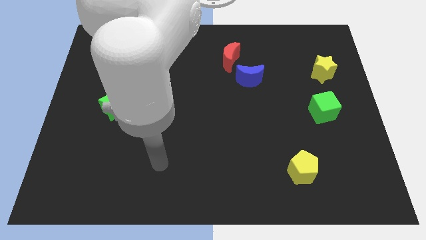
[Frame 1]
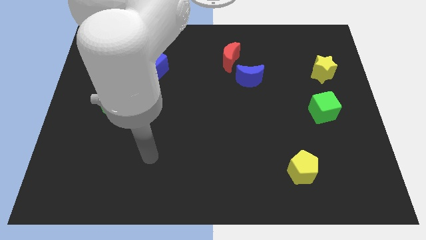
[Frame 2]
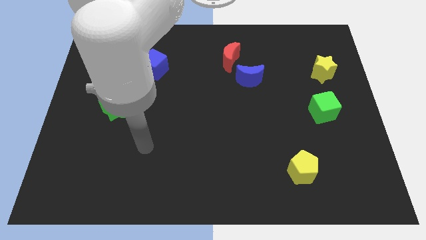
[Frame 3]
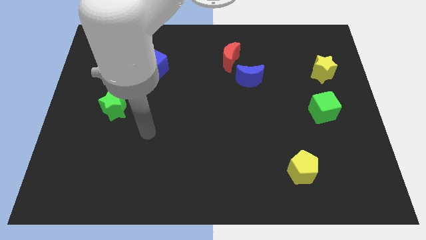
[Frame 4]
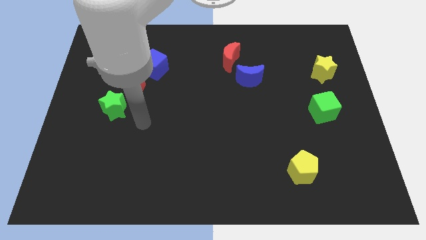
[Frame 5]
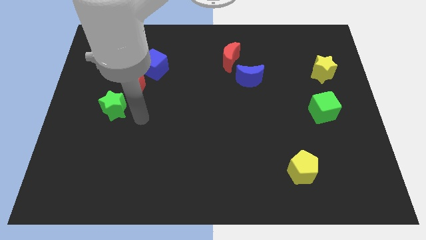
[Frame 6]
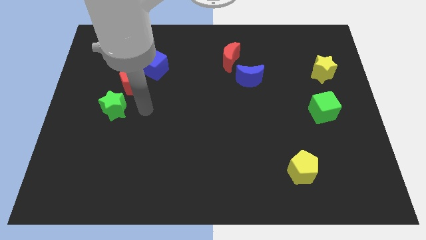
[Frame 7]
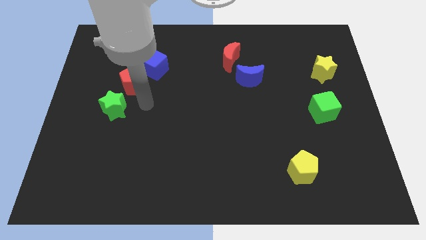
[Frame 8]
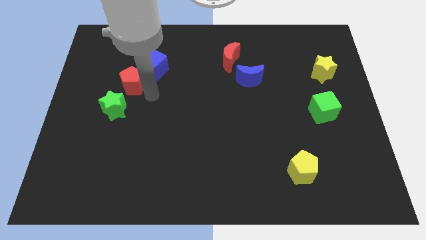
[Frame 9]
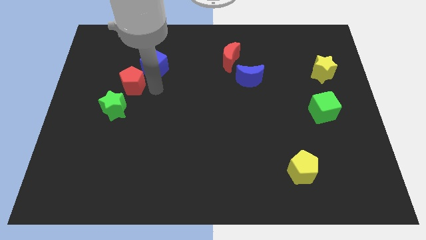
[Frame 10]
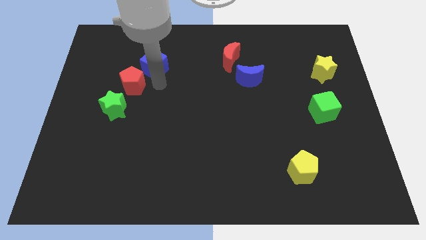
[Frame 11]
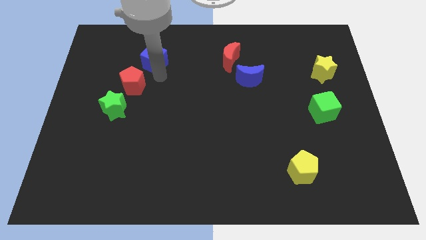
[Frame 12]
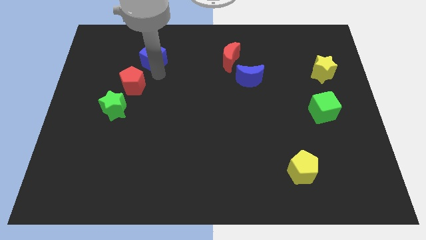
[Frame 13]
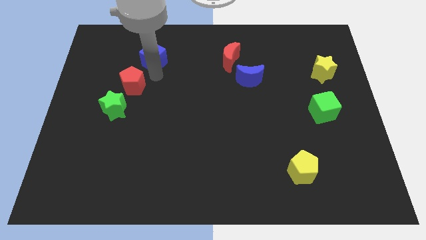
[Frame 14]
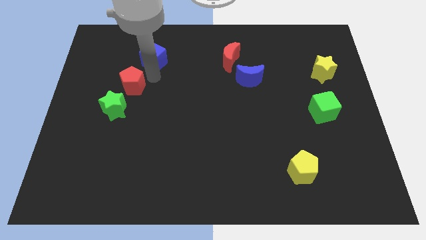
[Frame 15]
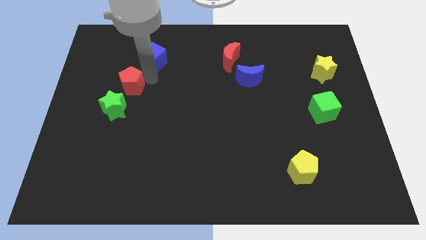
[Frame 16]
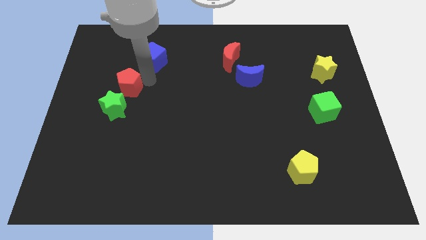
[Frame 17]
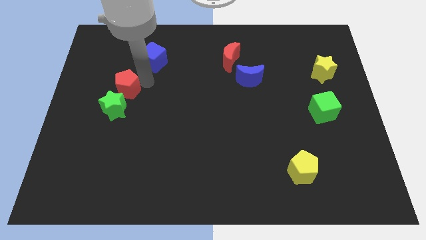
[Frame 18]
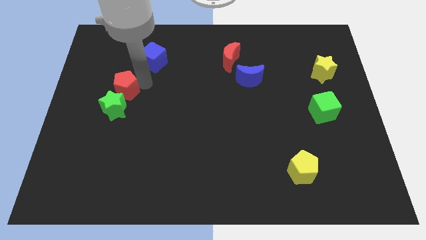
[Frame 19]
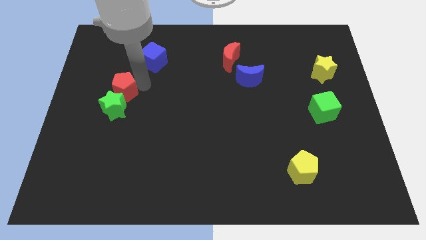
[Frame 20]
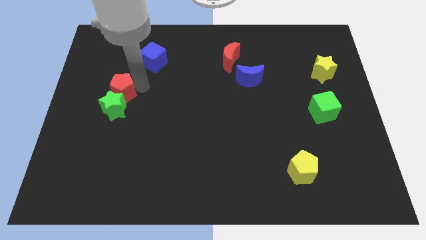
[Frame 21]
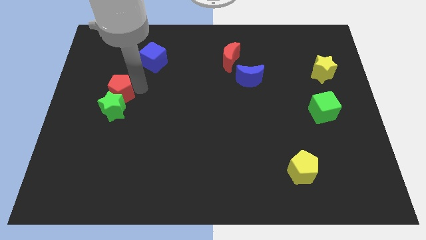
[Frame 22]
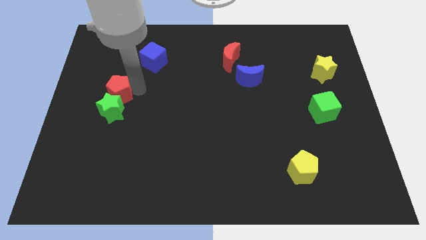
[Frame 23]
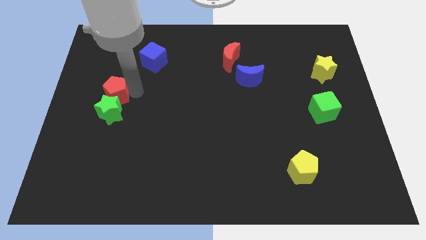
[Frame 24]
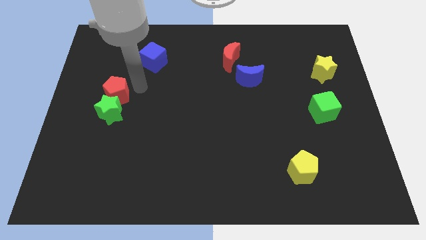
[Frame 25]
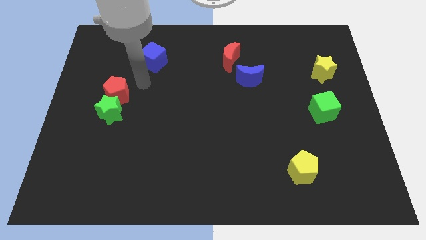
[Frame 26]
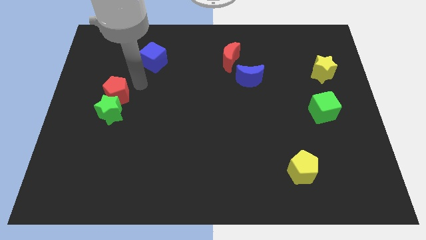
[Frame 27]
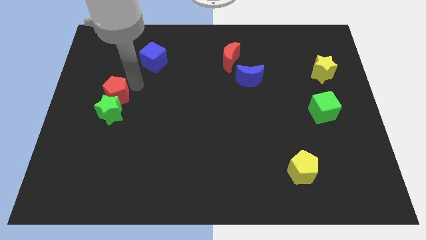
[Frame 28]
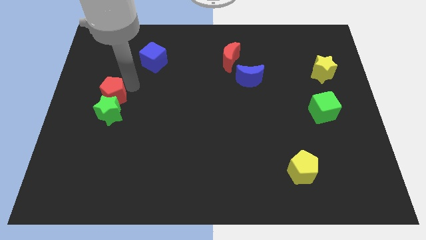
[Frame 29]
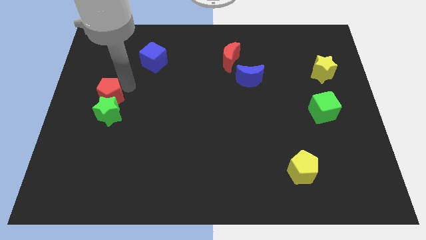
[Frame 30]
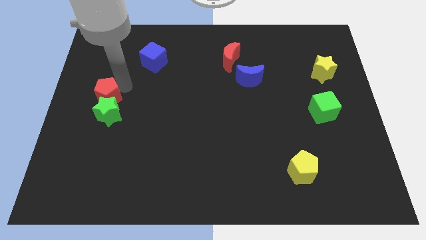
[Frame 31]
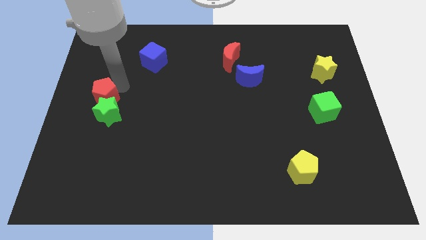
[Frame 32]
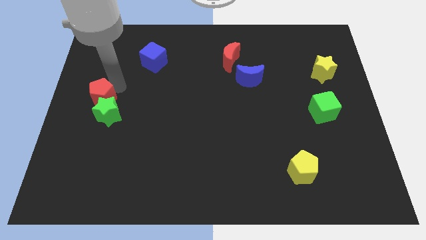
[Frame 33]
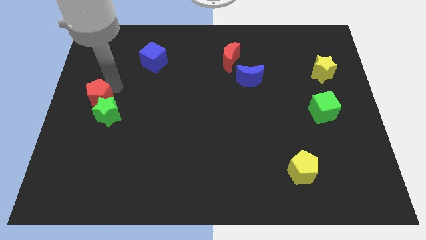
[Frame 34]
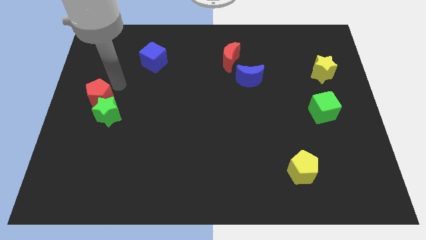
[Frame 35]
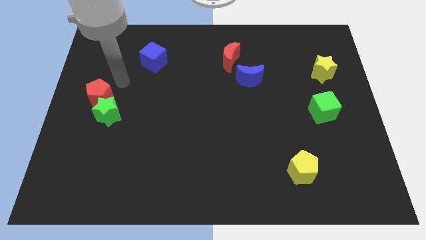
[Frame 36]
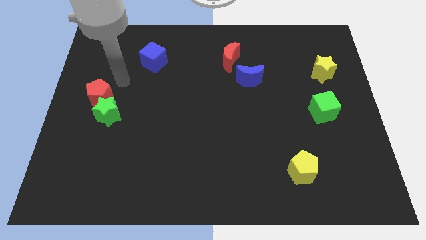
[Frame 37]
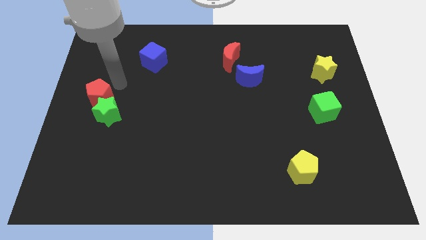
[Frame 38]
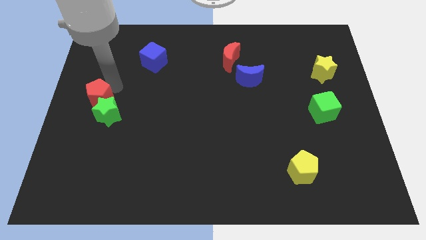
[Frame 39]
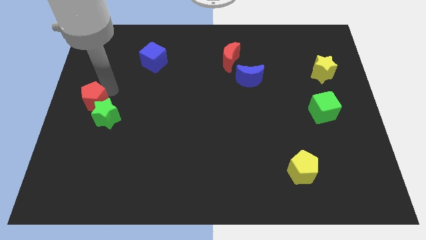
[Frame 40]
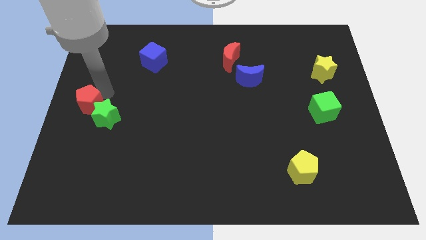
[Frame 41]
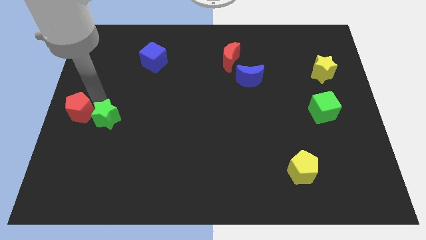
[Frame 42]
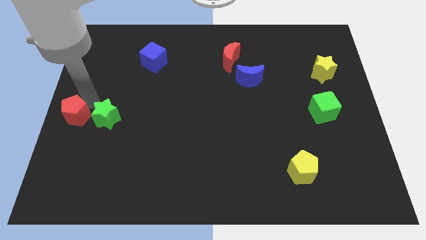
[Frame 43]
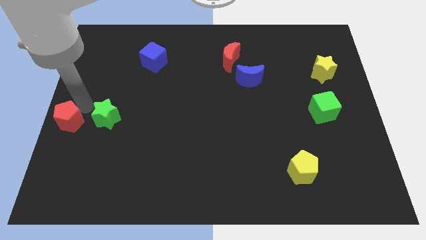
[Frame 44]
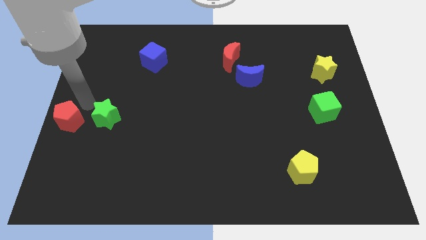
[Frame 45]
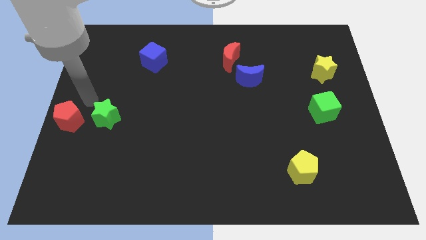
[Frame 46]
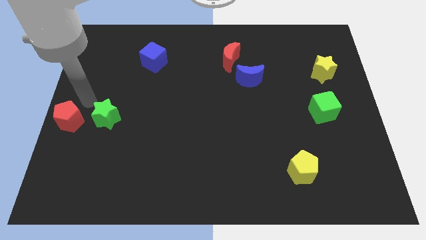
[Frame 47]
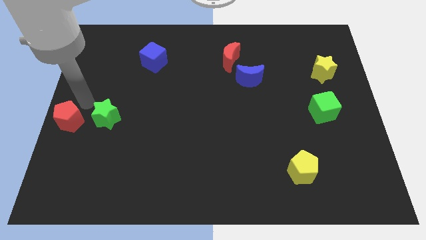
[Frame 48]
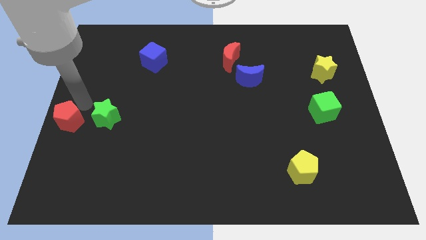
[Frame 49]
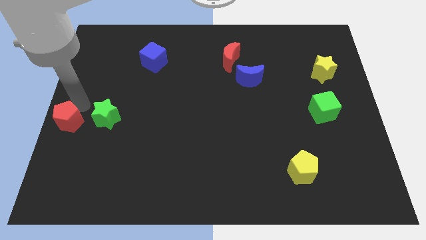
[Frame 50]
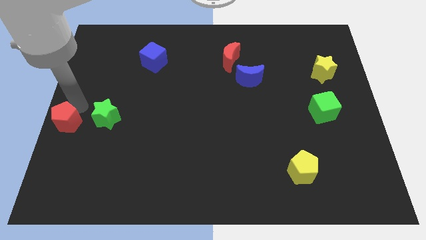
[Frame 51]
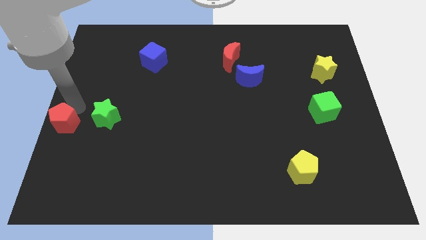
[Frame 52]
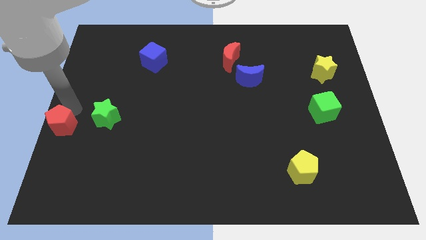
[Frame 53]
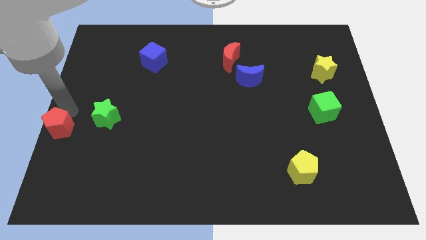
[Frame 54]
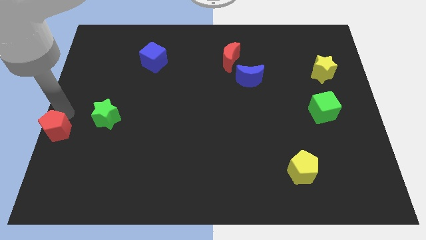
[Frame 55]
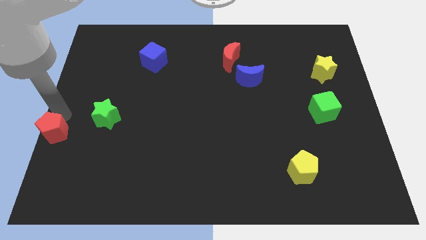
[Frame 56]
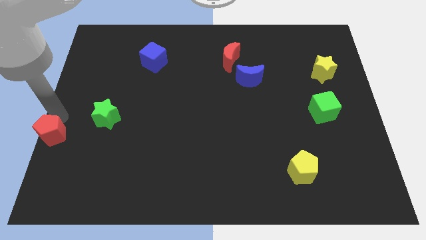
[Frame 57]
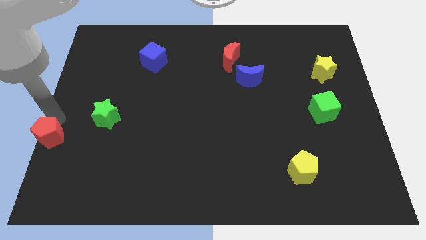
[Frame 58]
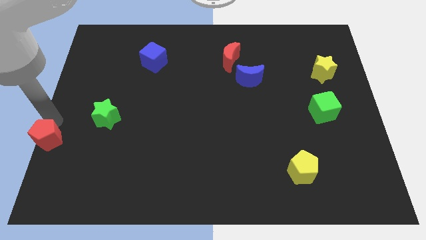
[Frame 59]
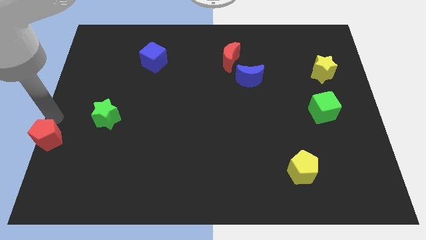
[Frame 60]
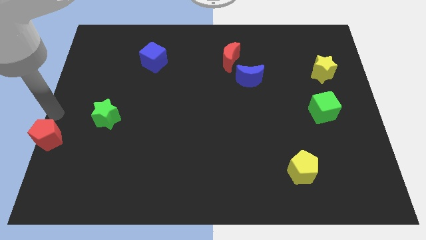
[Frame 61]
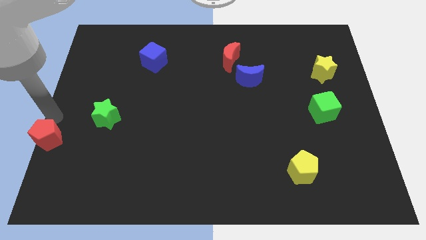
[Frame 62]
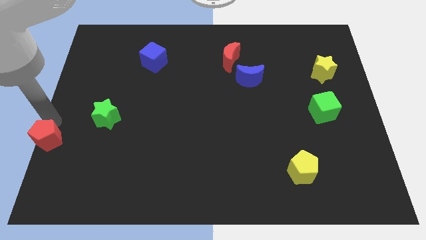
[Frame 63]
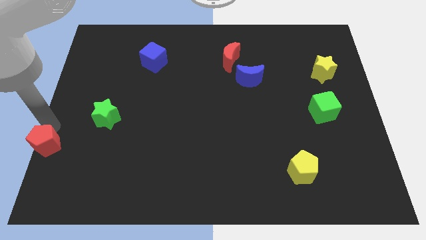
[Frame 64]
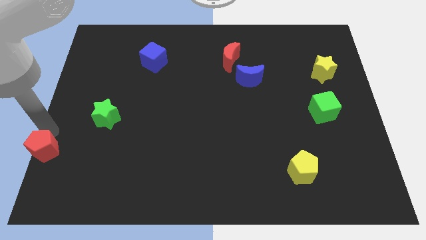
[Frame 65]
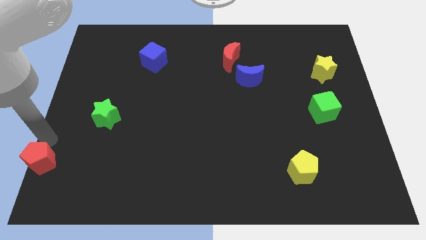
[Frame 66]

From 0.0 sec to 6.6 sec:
move the red pentagon to the bottom left

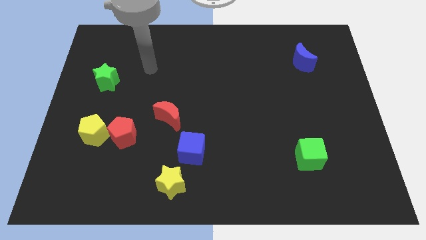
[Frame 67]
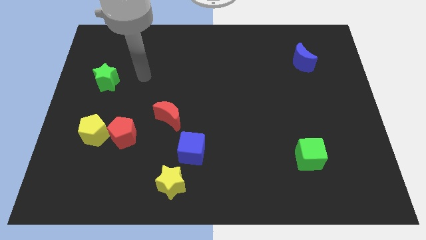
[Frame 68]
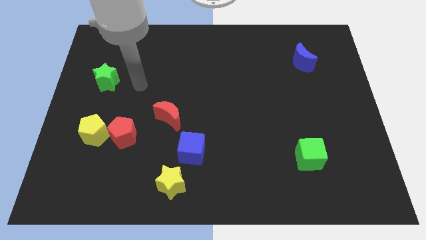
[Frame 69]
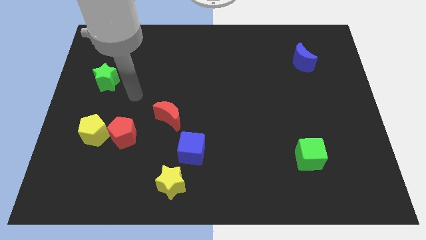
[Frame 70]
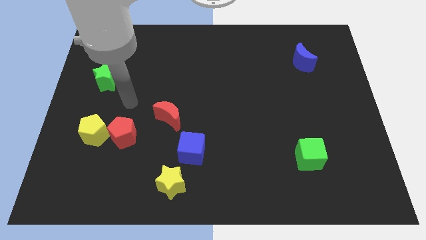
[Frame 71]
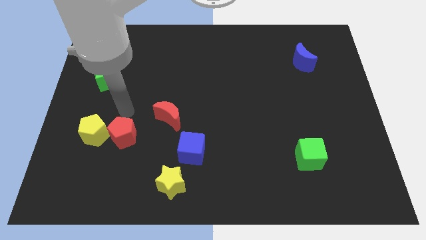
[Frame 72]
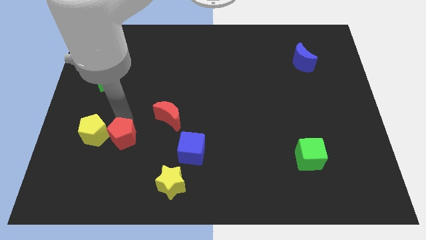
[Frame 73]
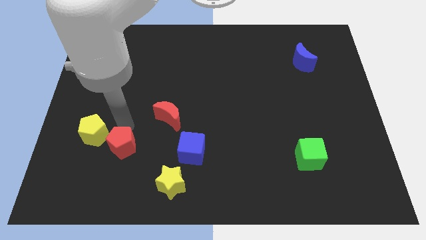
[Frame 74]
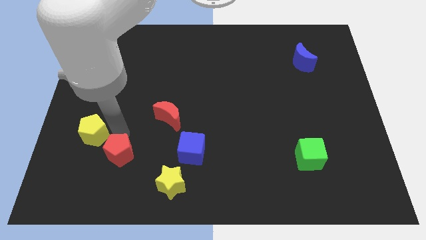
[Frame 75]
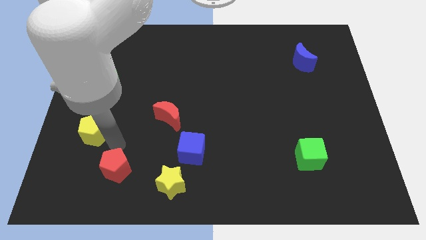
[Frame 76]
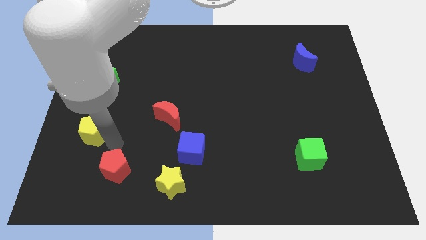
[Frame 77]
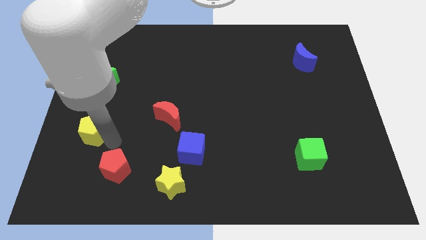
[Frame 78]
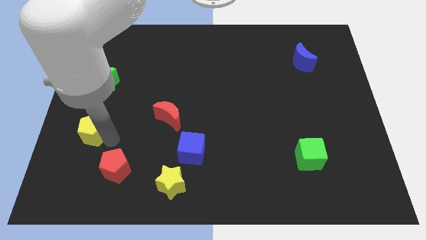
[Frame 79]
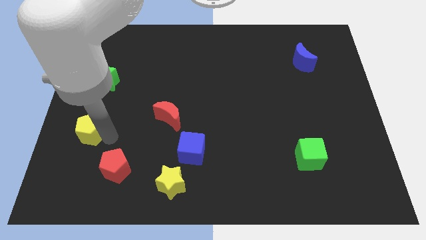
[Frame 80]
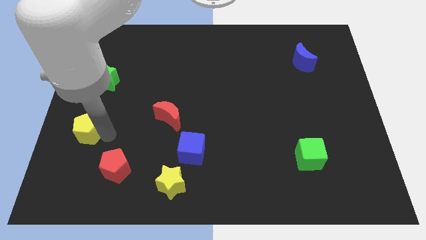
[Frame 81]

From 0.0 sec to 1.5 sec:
put the yellow pentagon to the left side

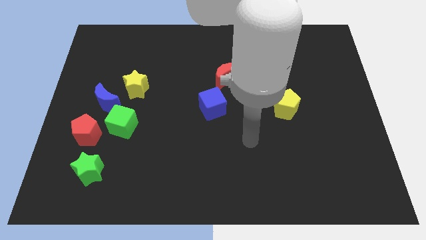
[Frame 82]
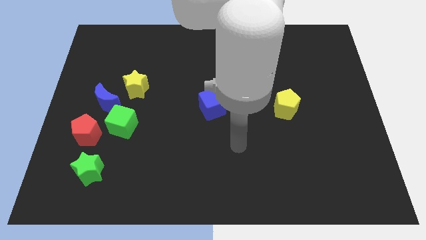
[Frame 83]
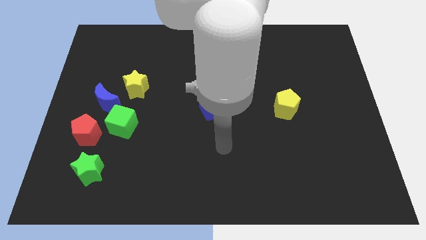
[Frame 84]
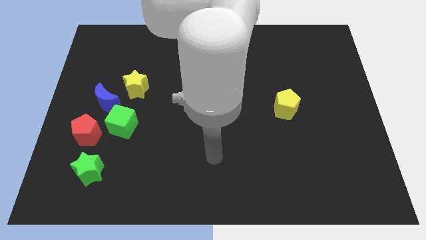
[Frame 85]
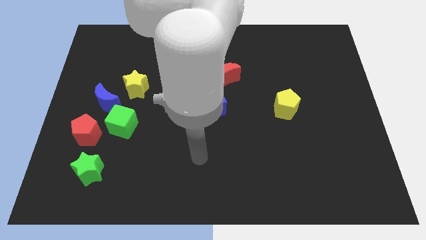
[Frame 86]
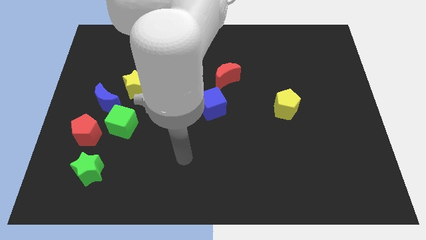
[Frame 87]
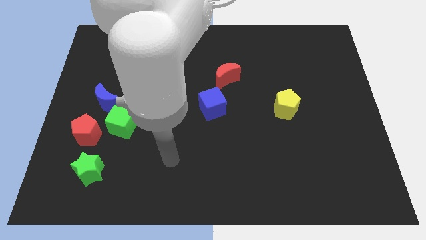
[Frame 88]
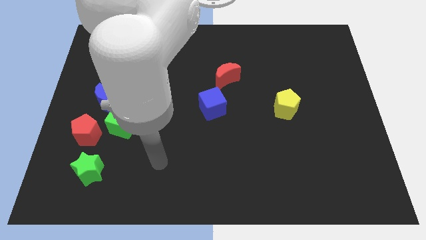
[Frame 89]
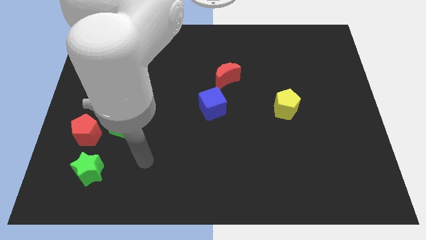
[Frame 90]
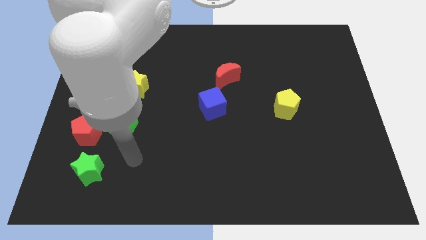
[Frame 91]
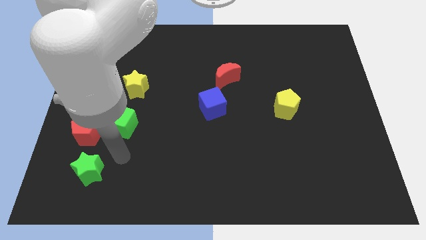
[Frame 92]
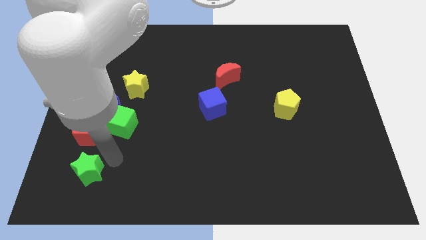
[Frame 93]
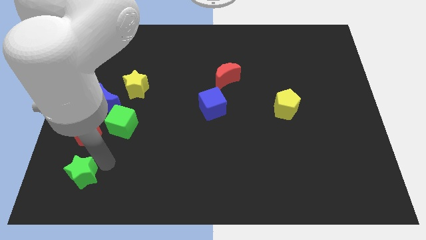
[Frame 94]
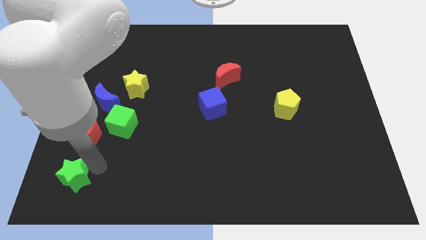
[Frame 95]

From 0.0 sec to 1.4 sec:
put the green star to the bottom left
